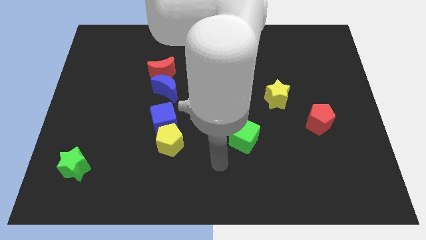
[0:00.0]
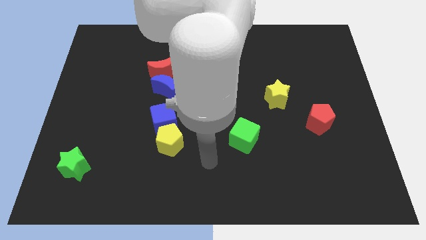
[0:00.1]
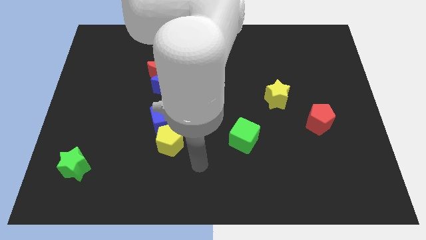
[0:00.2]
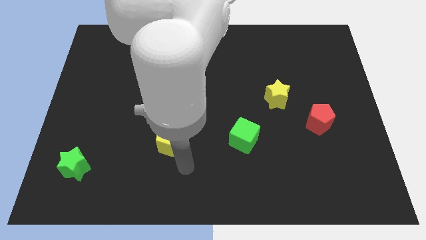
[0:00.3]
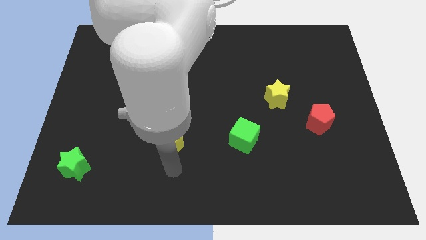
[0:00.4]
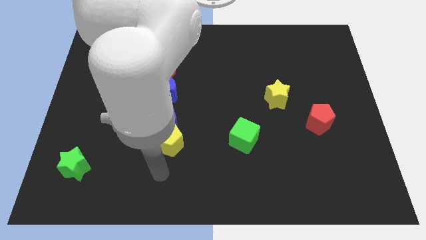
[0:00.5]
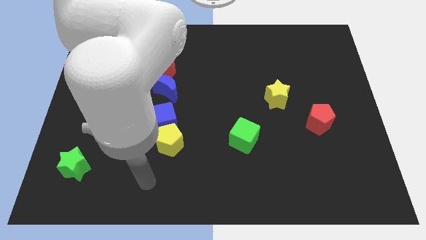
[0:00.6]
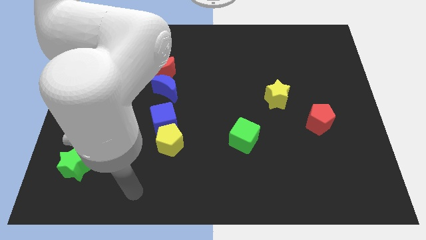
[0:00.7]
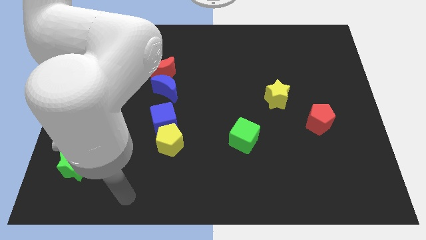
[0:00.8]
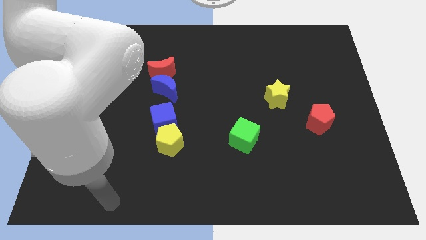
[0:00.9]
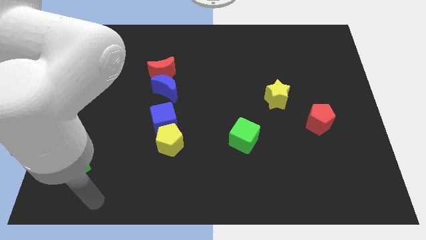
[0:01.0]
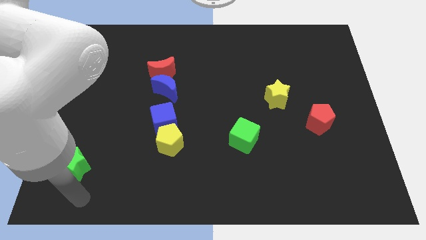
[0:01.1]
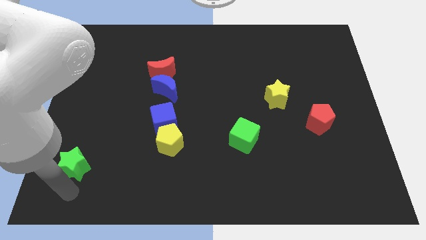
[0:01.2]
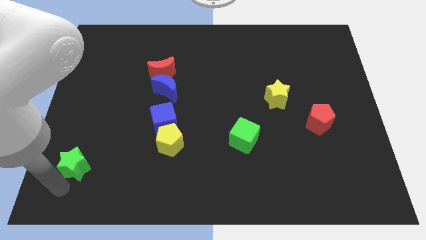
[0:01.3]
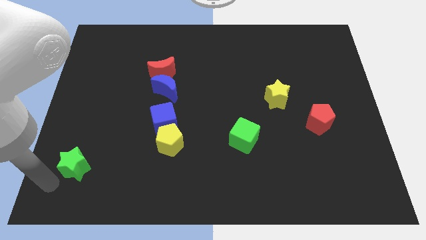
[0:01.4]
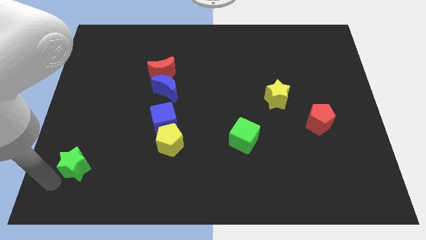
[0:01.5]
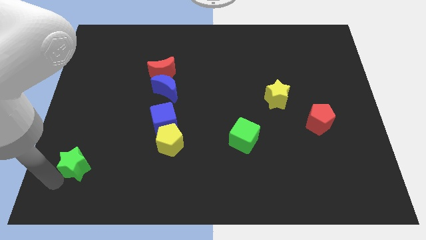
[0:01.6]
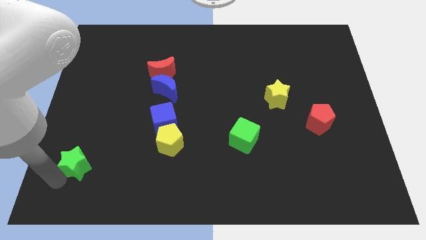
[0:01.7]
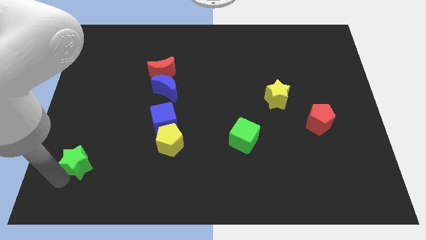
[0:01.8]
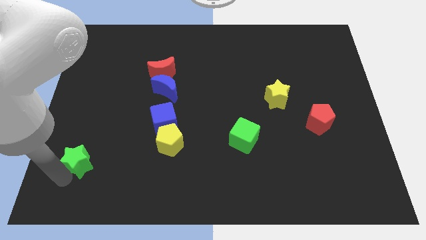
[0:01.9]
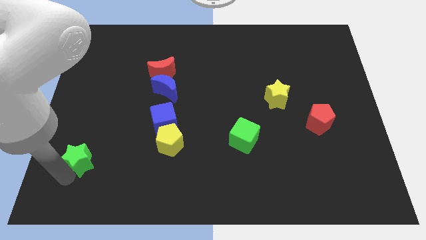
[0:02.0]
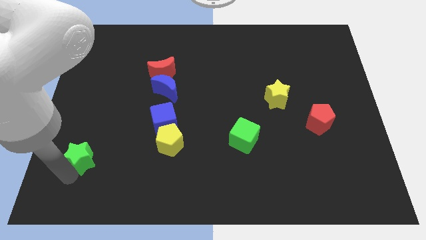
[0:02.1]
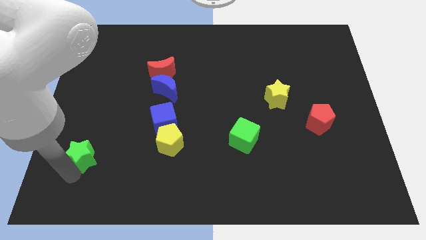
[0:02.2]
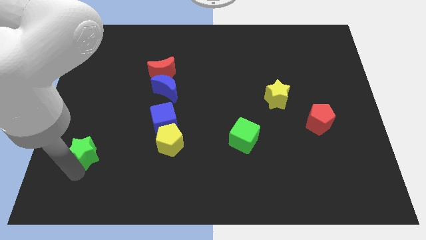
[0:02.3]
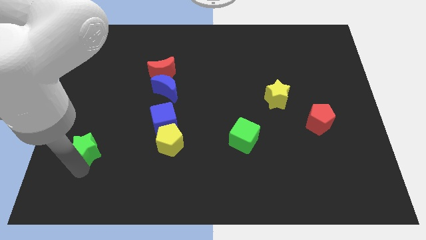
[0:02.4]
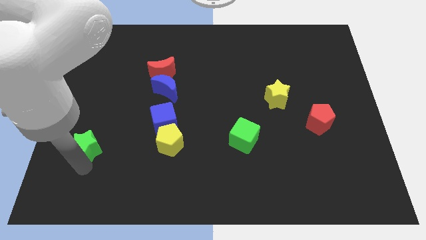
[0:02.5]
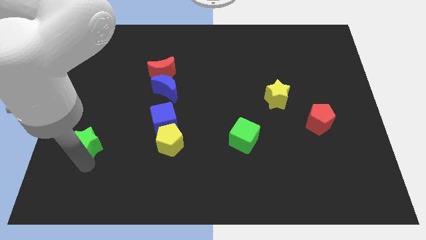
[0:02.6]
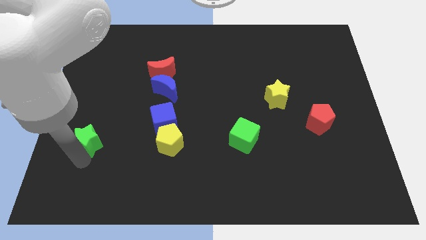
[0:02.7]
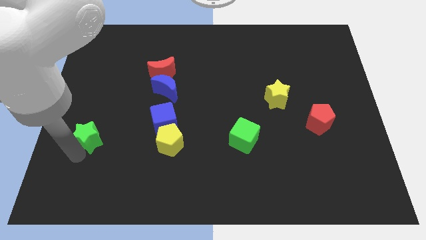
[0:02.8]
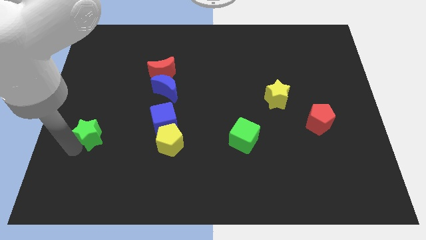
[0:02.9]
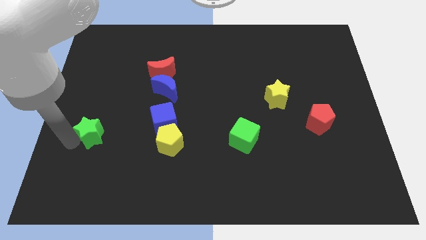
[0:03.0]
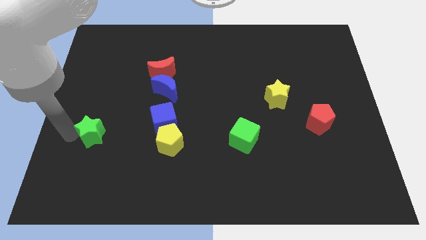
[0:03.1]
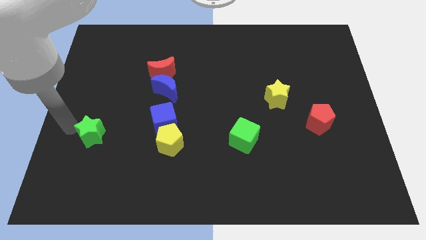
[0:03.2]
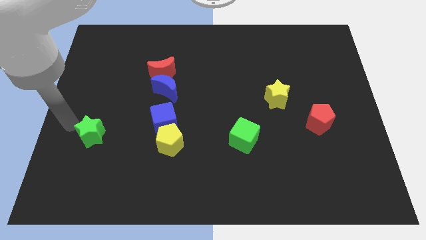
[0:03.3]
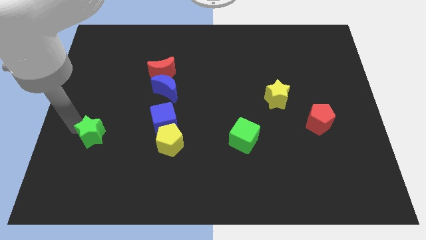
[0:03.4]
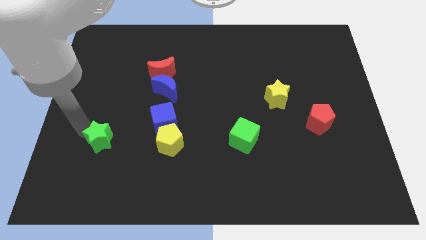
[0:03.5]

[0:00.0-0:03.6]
slightly push the green star upwards and then right

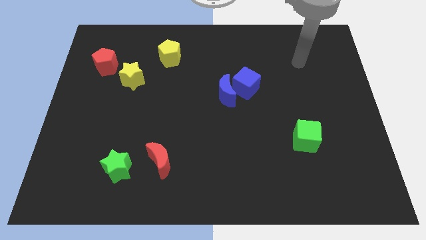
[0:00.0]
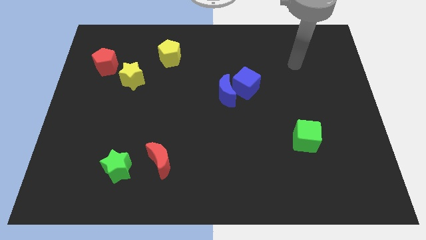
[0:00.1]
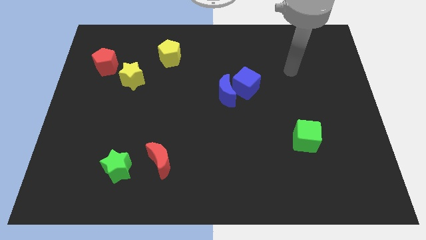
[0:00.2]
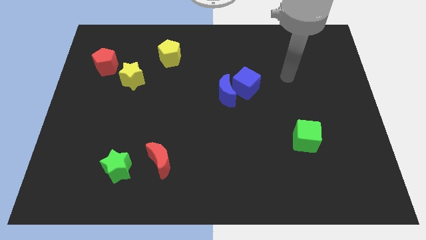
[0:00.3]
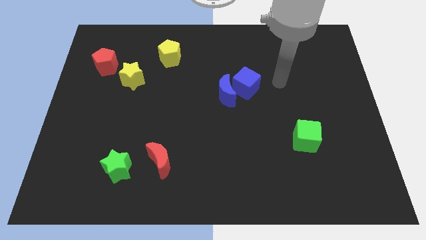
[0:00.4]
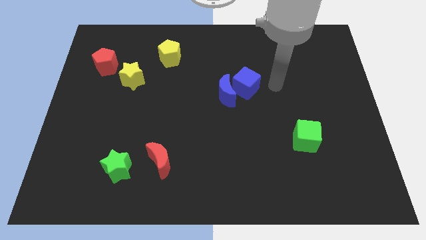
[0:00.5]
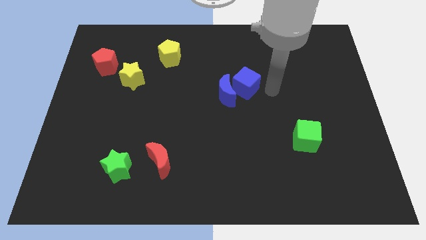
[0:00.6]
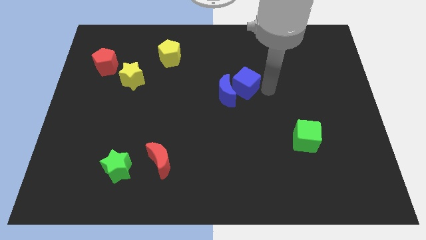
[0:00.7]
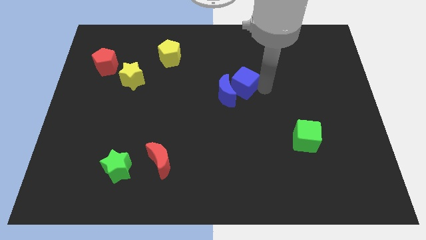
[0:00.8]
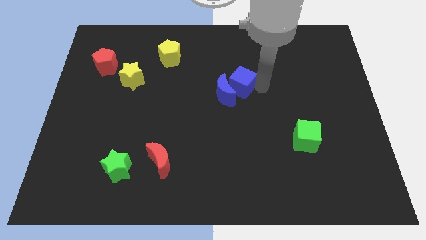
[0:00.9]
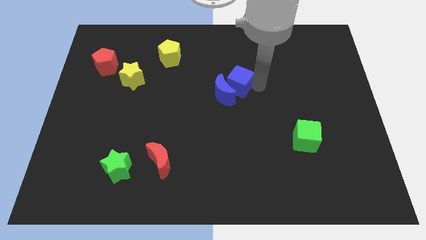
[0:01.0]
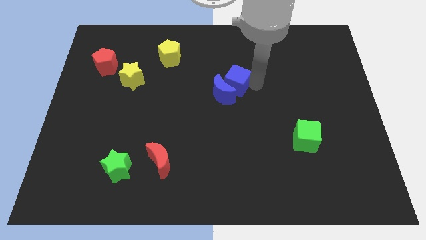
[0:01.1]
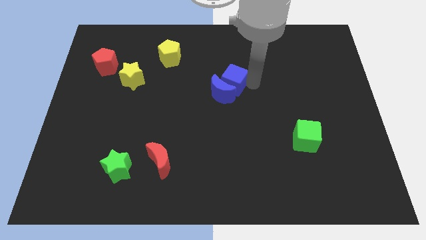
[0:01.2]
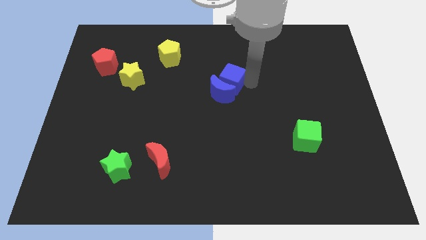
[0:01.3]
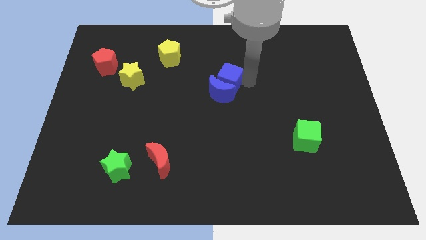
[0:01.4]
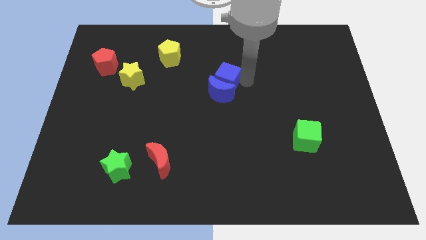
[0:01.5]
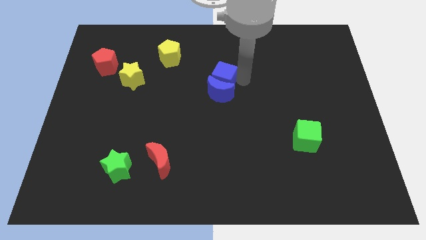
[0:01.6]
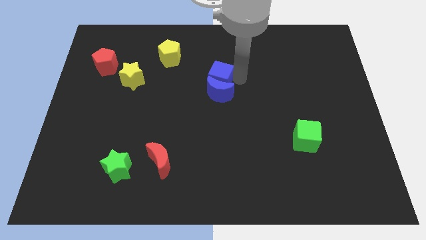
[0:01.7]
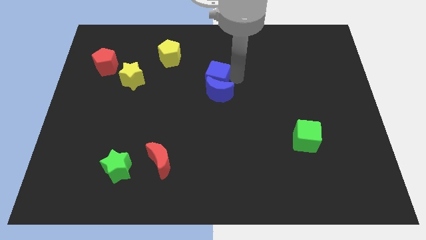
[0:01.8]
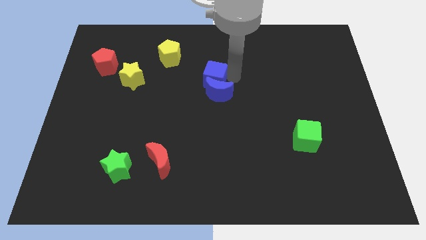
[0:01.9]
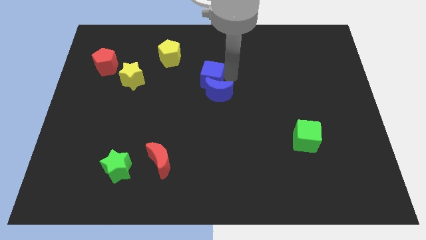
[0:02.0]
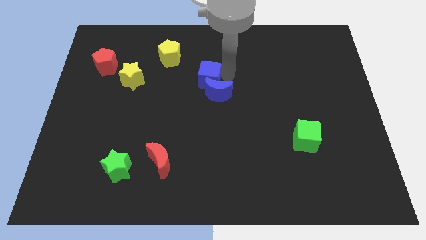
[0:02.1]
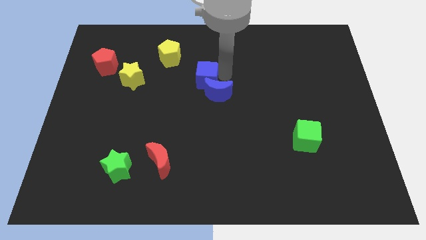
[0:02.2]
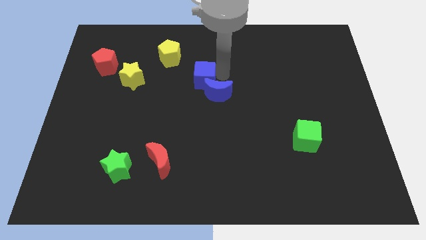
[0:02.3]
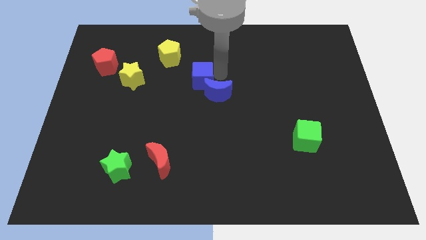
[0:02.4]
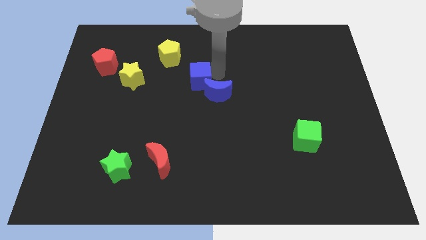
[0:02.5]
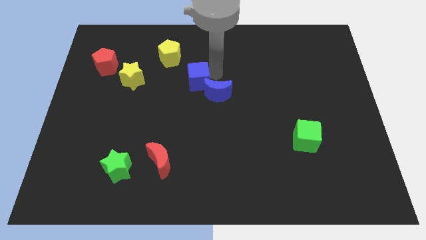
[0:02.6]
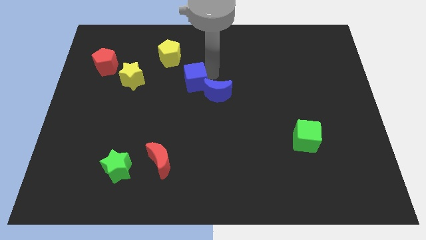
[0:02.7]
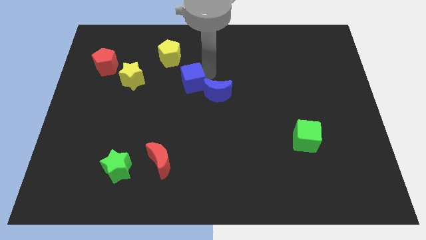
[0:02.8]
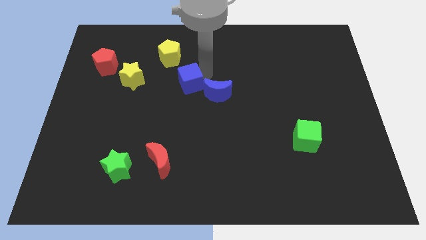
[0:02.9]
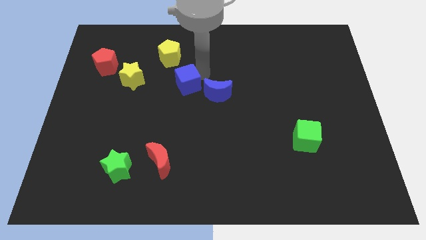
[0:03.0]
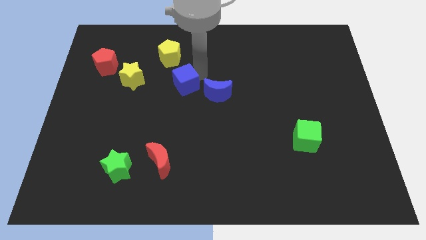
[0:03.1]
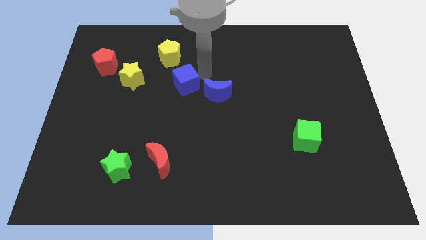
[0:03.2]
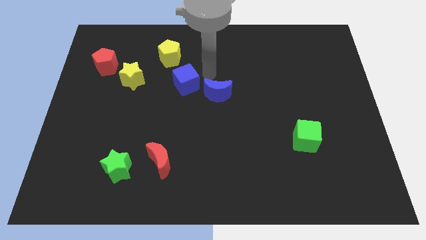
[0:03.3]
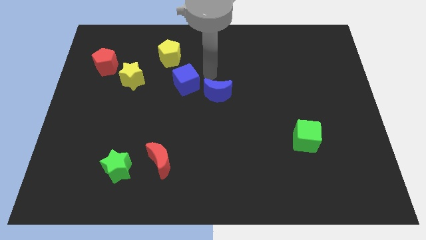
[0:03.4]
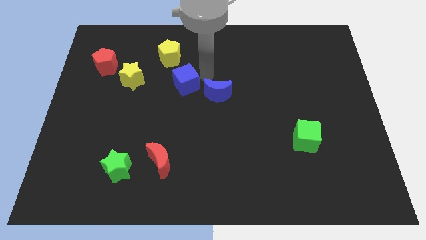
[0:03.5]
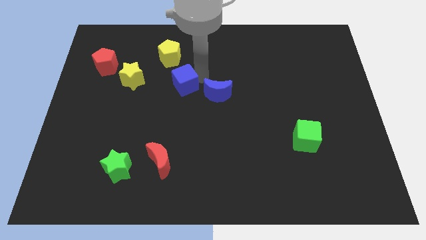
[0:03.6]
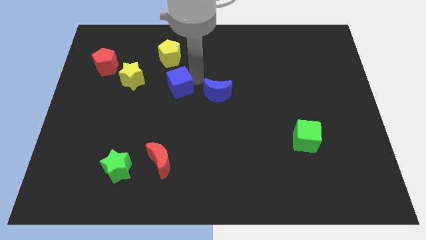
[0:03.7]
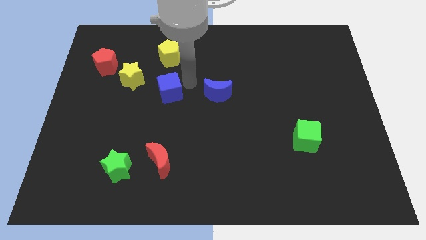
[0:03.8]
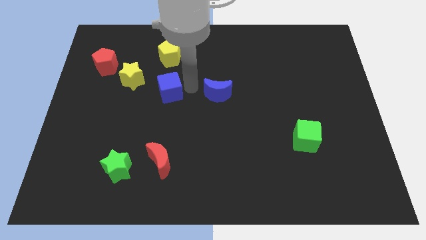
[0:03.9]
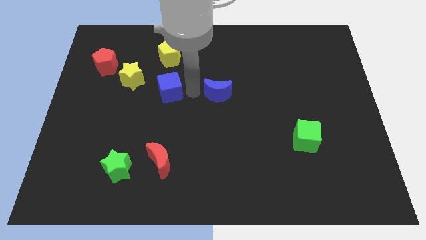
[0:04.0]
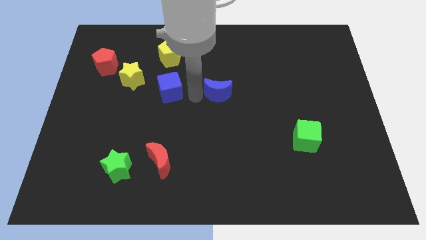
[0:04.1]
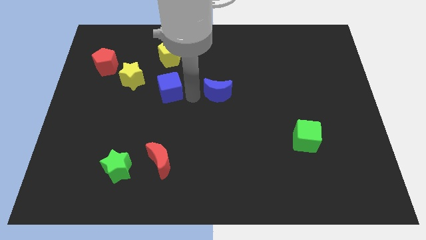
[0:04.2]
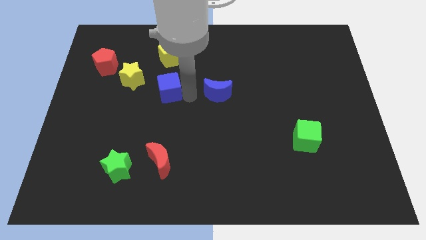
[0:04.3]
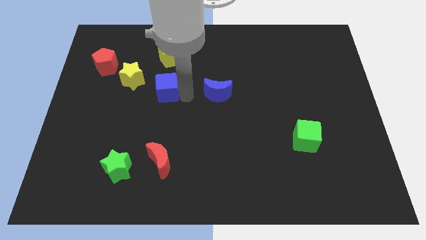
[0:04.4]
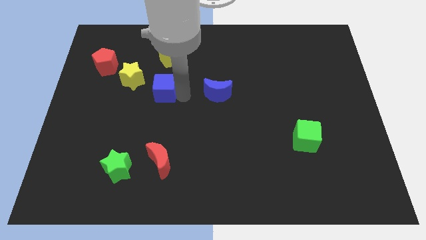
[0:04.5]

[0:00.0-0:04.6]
push the blue cube left

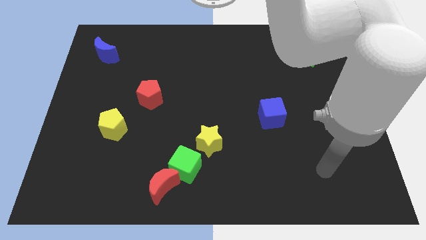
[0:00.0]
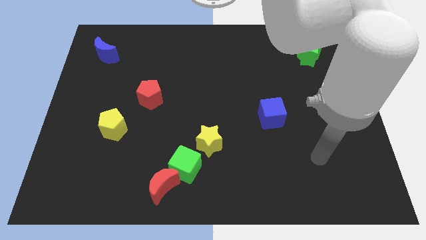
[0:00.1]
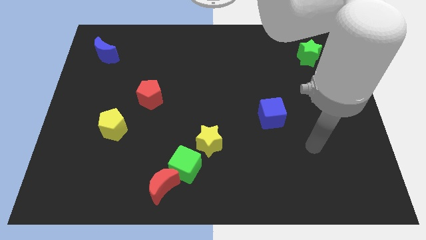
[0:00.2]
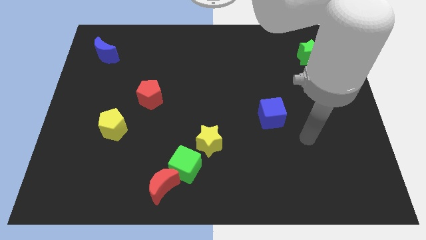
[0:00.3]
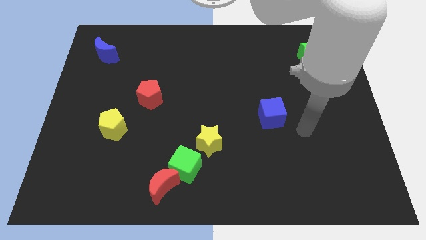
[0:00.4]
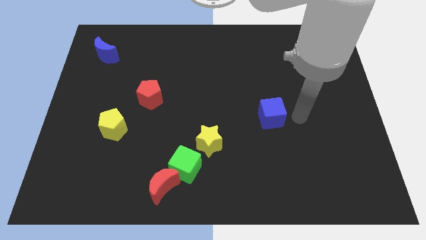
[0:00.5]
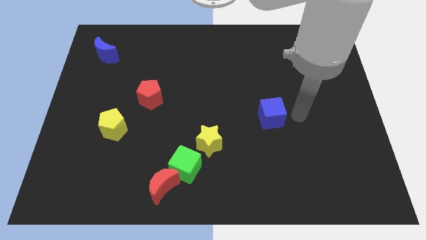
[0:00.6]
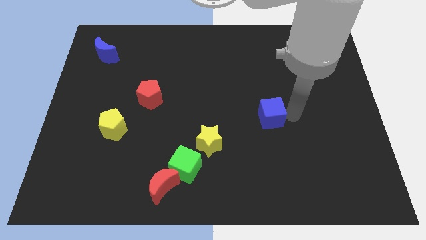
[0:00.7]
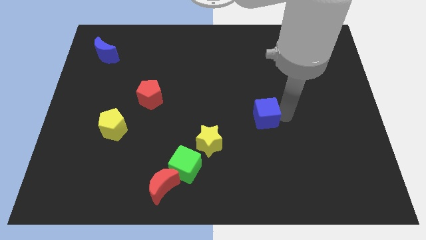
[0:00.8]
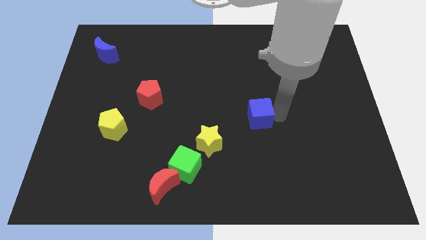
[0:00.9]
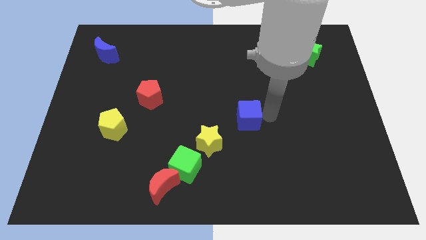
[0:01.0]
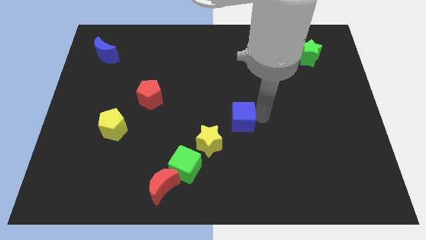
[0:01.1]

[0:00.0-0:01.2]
slide the blue cube to the left a little
